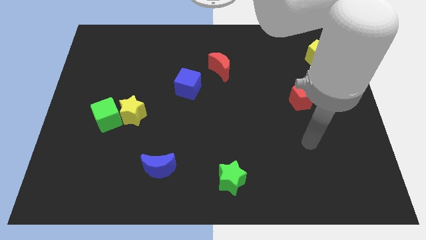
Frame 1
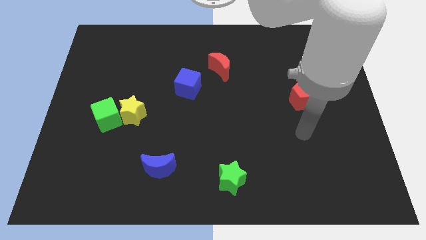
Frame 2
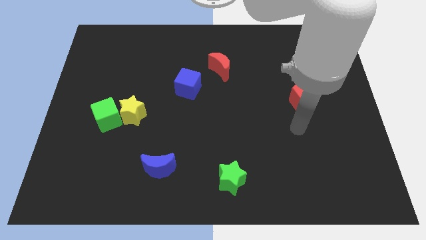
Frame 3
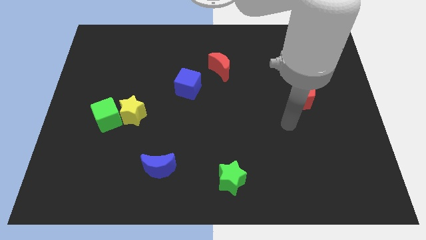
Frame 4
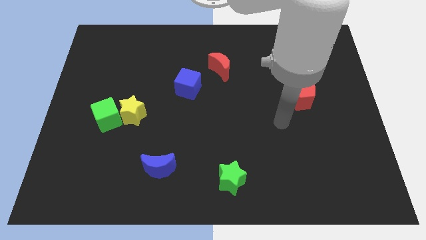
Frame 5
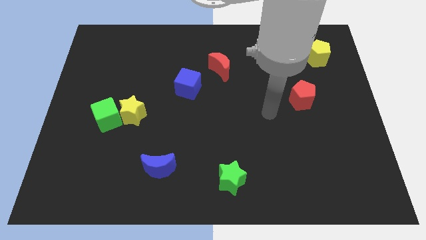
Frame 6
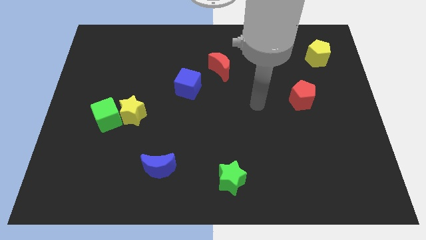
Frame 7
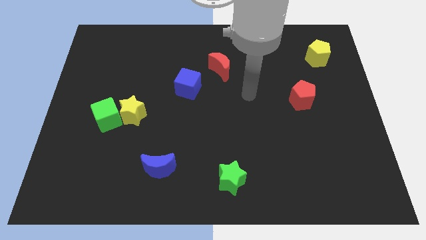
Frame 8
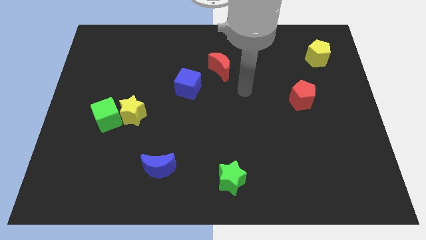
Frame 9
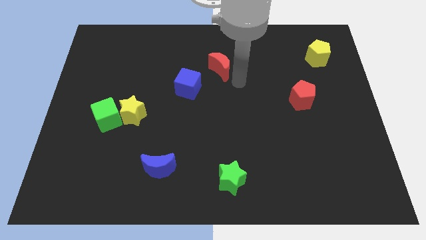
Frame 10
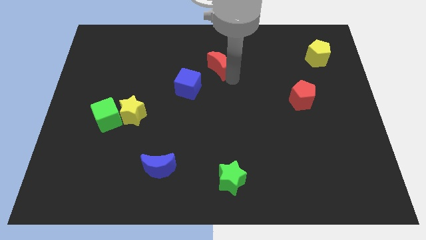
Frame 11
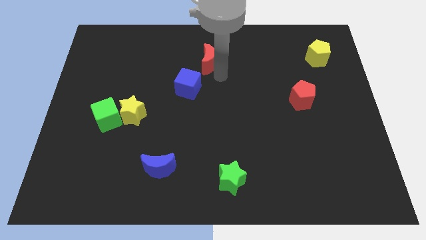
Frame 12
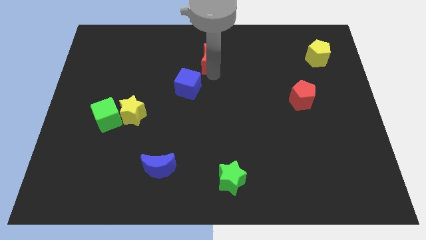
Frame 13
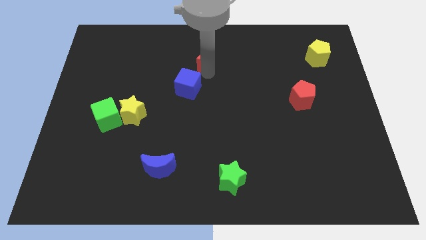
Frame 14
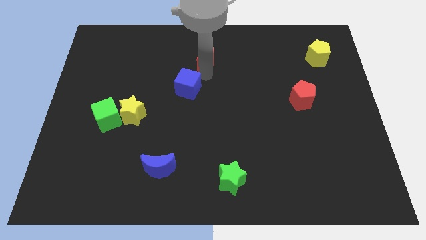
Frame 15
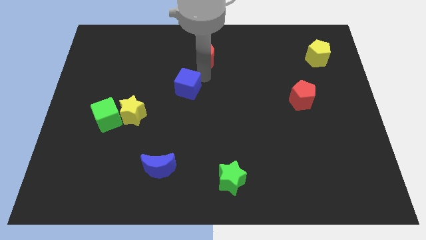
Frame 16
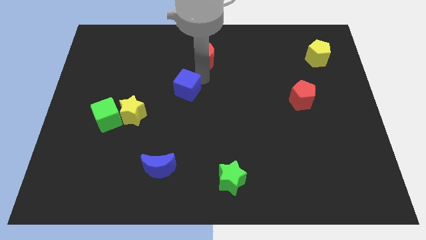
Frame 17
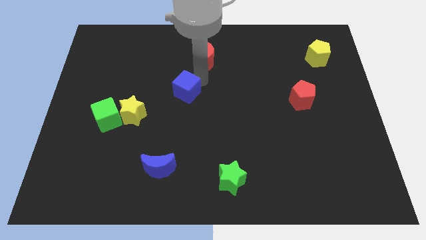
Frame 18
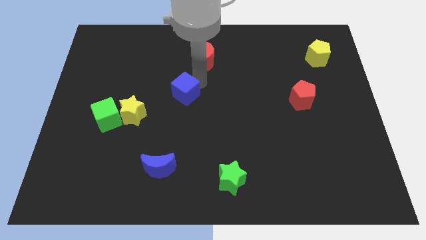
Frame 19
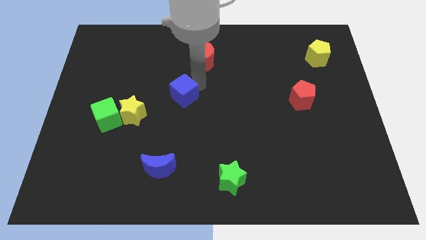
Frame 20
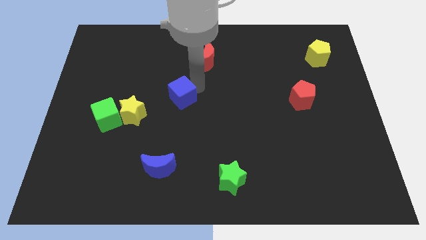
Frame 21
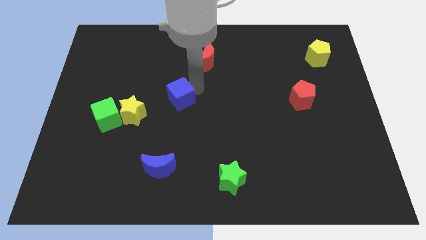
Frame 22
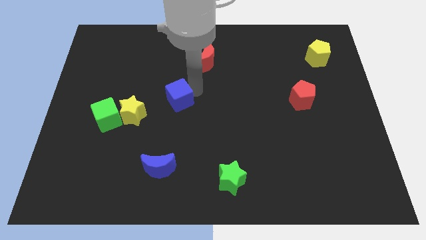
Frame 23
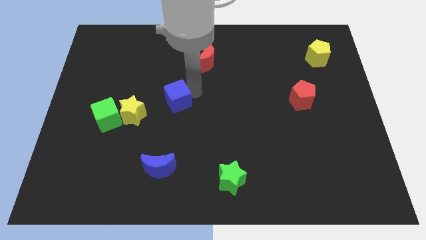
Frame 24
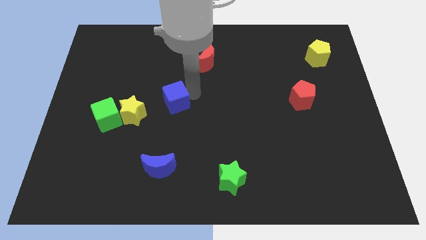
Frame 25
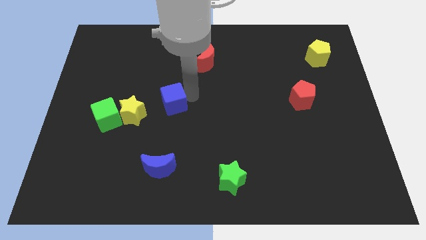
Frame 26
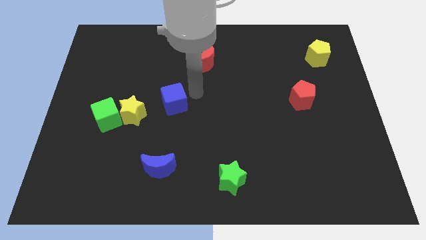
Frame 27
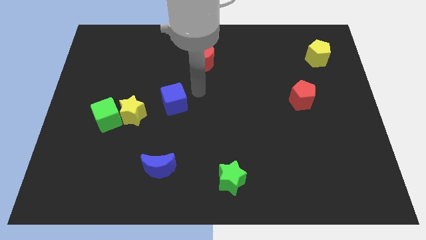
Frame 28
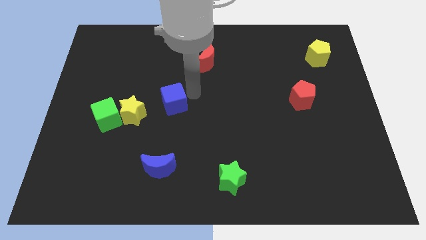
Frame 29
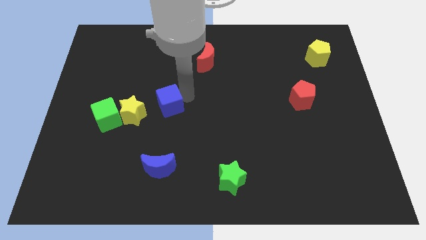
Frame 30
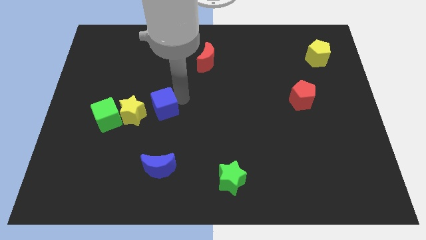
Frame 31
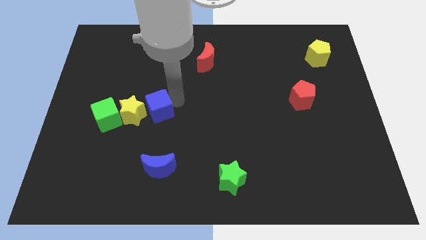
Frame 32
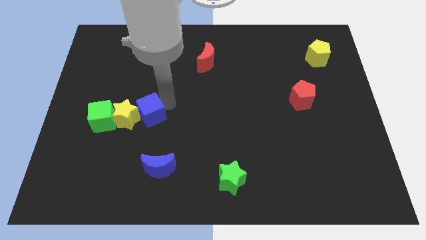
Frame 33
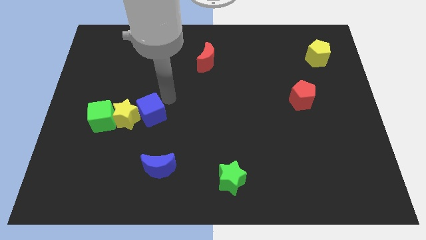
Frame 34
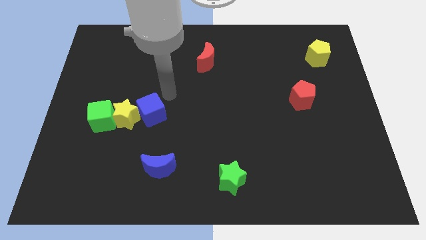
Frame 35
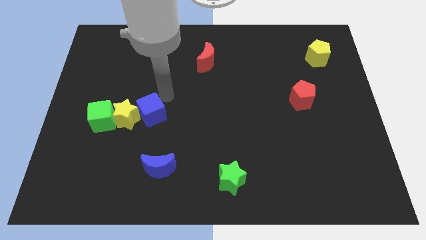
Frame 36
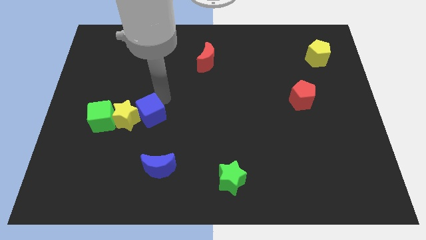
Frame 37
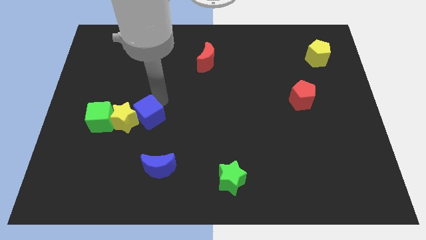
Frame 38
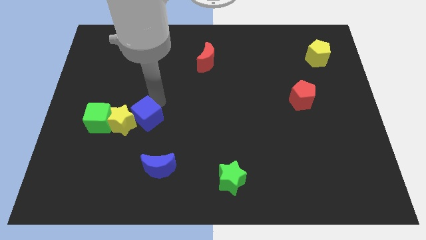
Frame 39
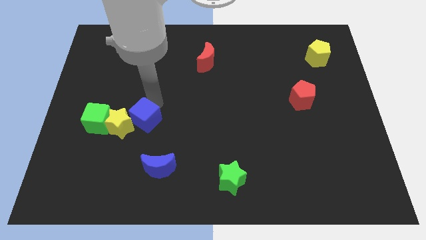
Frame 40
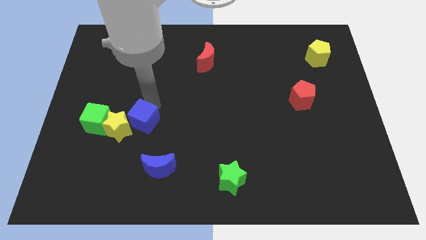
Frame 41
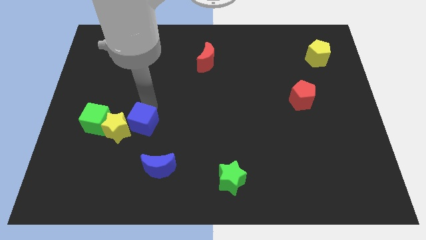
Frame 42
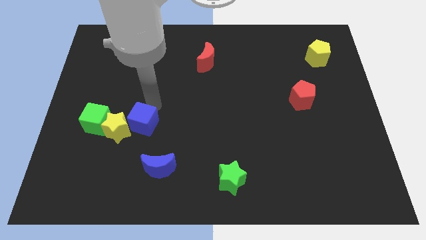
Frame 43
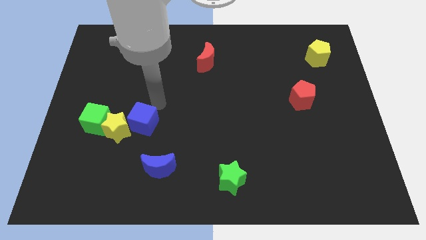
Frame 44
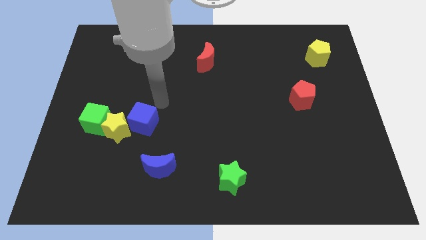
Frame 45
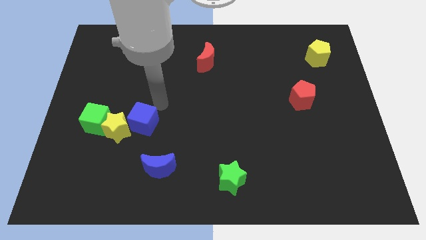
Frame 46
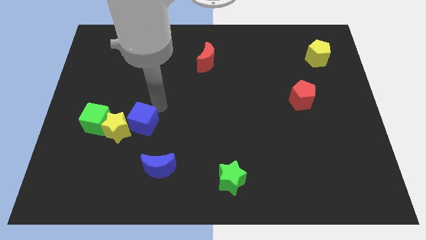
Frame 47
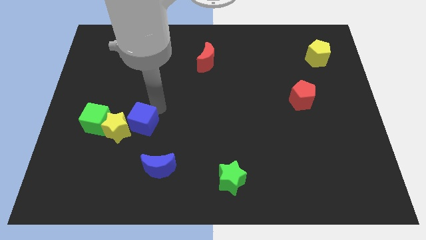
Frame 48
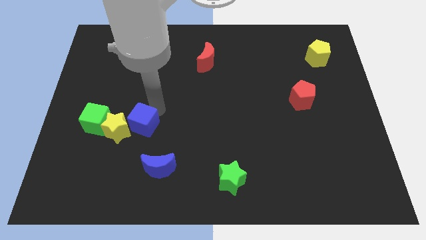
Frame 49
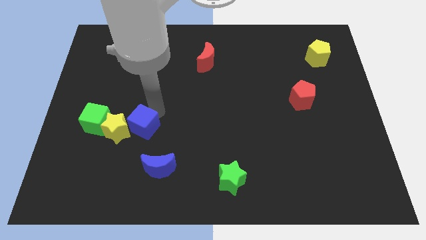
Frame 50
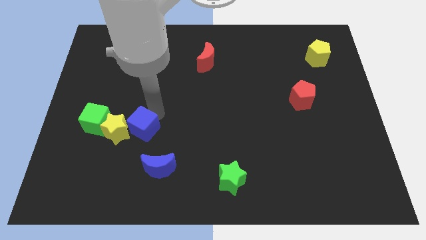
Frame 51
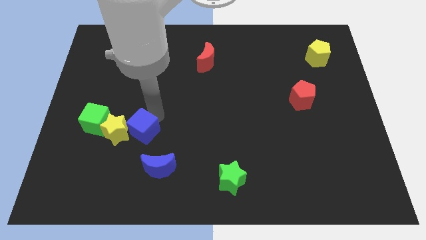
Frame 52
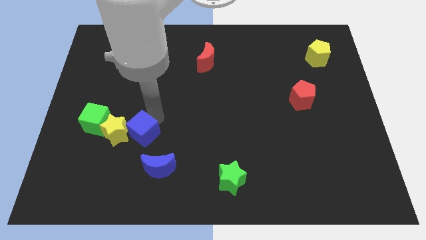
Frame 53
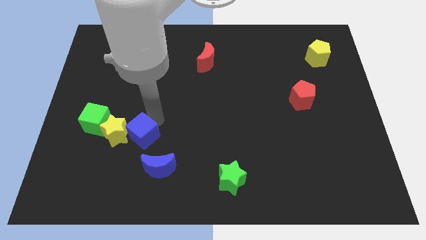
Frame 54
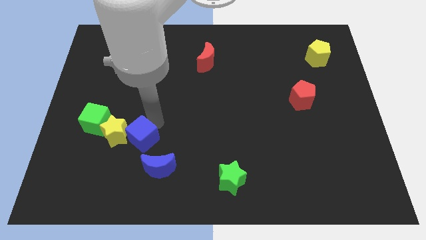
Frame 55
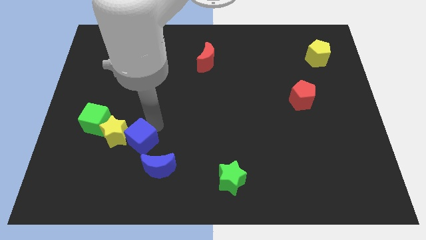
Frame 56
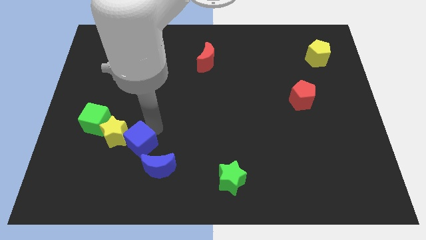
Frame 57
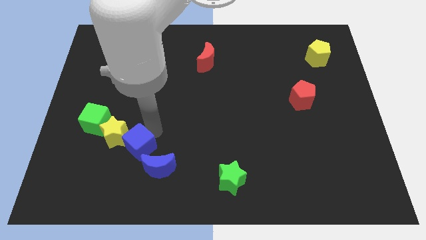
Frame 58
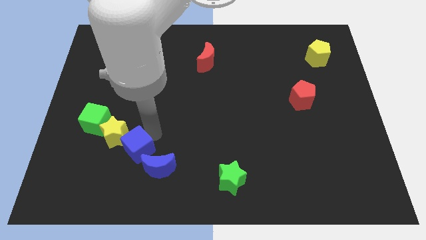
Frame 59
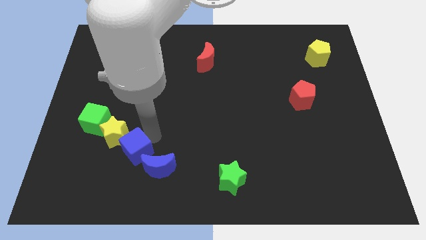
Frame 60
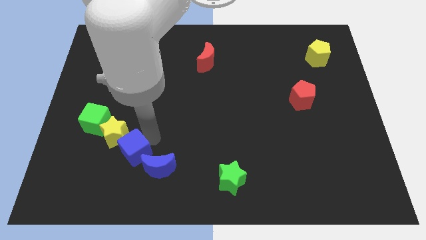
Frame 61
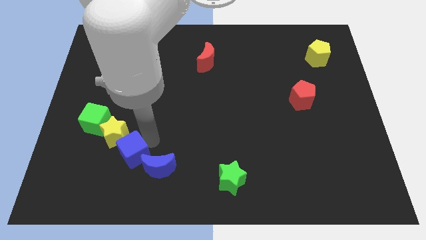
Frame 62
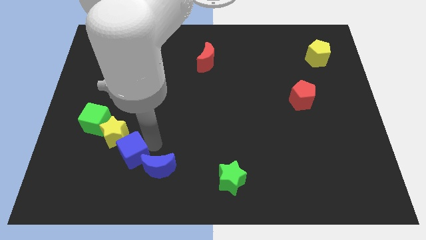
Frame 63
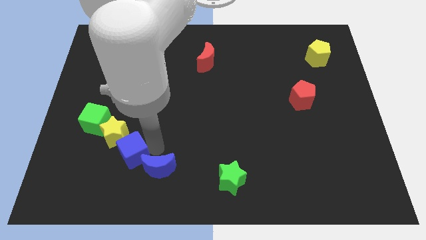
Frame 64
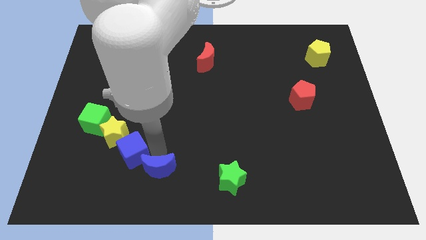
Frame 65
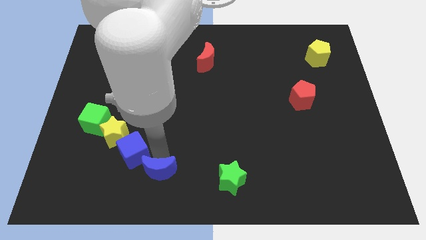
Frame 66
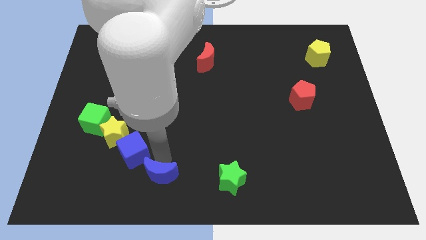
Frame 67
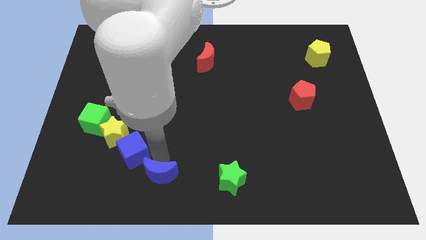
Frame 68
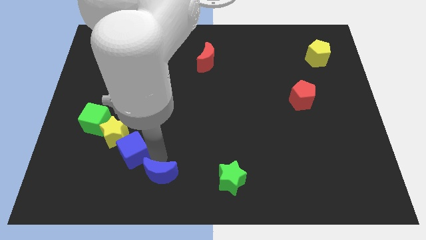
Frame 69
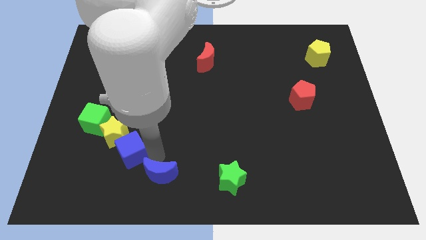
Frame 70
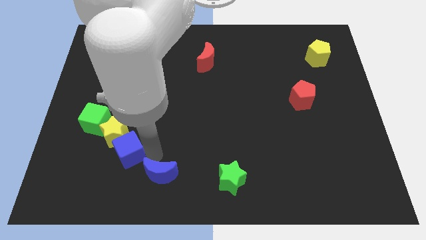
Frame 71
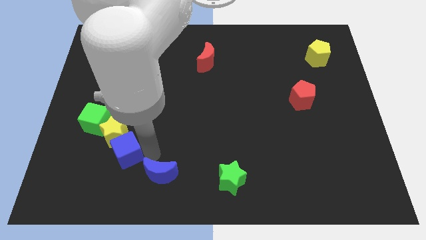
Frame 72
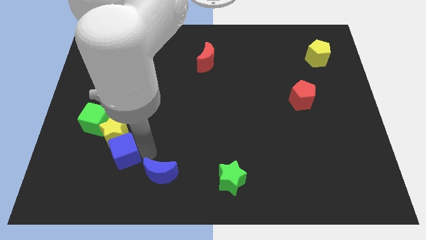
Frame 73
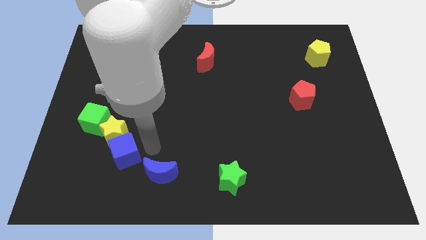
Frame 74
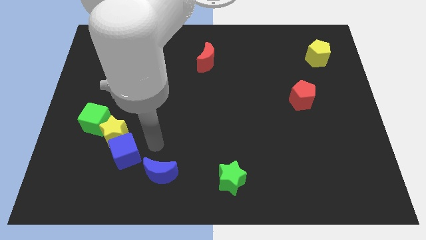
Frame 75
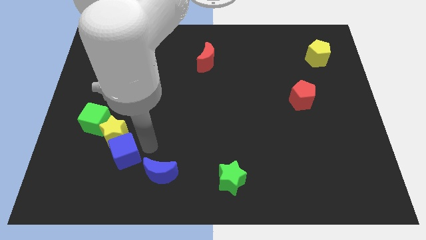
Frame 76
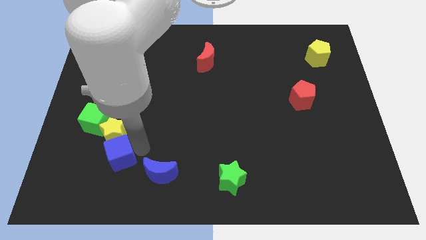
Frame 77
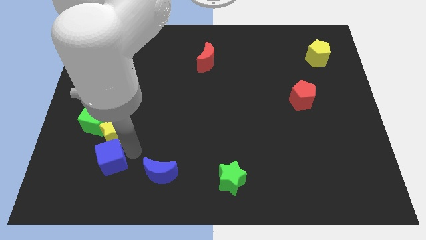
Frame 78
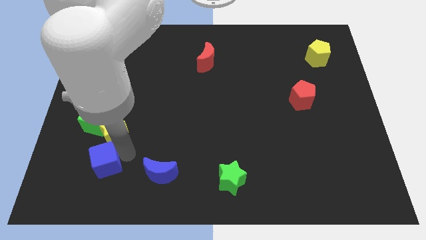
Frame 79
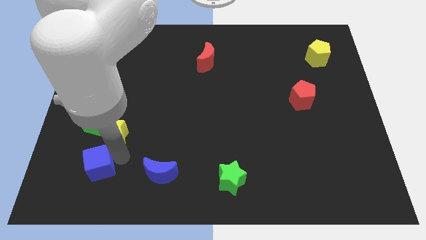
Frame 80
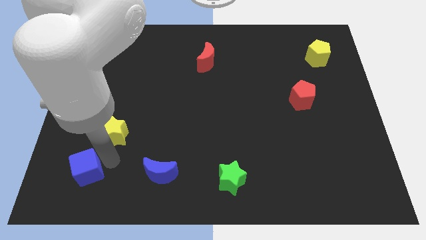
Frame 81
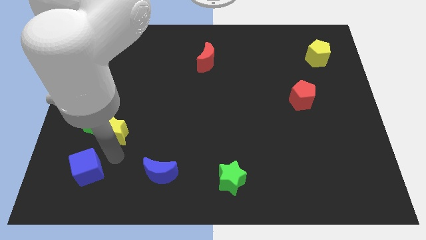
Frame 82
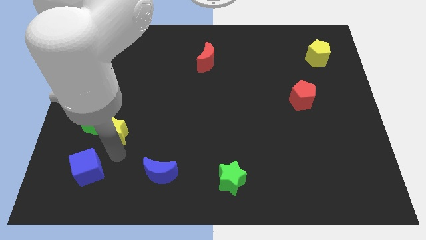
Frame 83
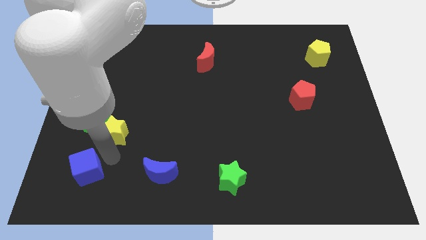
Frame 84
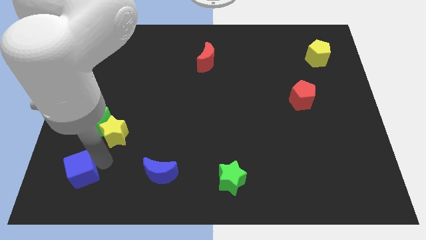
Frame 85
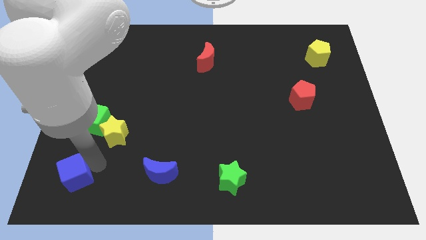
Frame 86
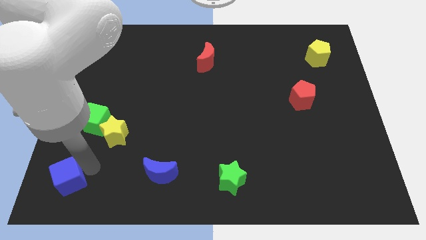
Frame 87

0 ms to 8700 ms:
put the blue cube to the bottom left
